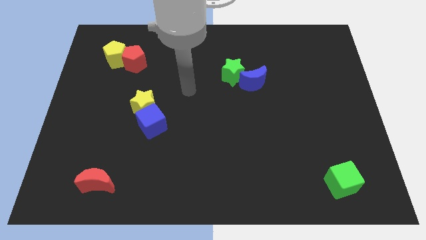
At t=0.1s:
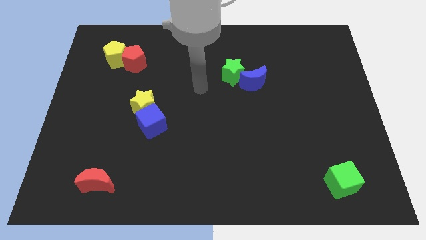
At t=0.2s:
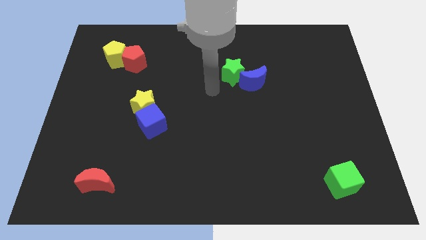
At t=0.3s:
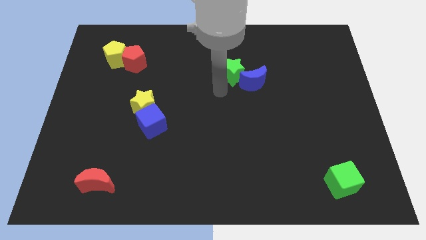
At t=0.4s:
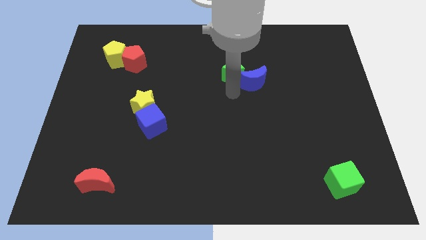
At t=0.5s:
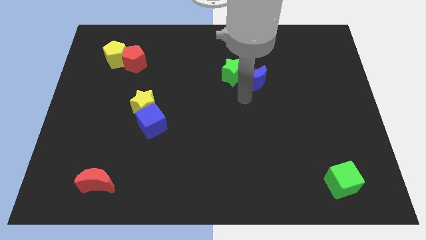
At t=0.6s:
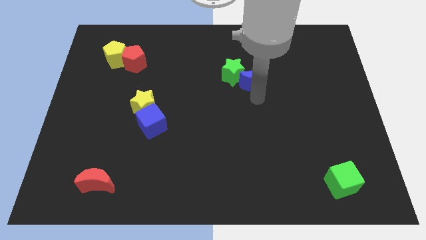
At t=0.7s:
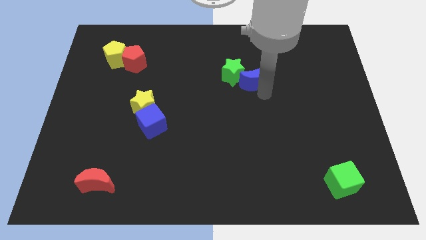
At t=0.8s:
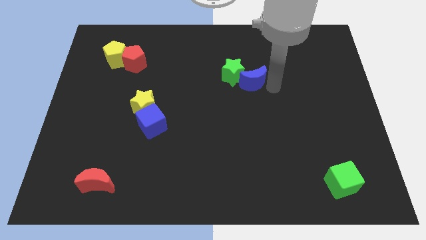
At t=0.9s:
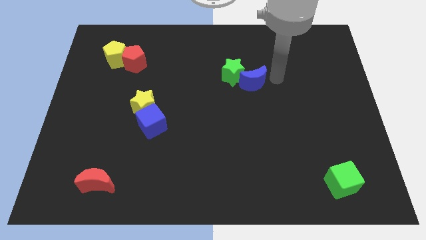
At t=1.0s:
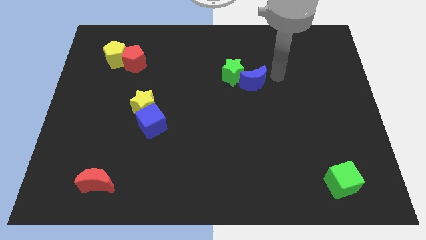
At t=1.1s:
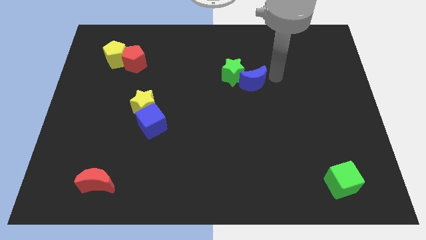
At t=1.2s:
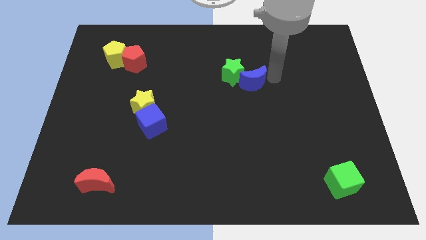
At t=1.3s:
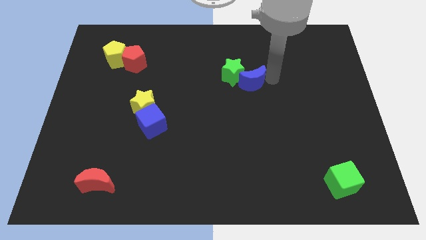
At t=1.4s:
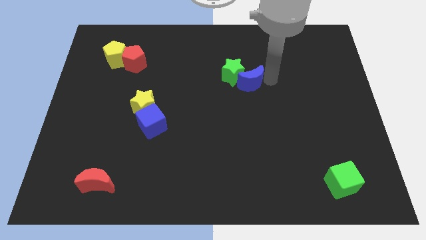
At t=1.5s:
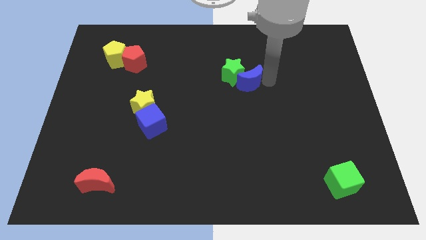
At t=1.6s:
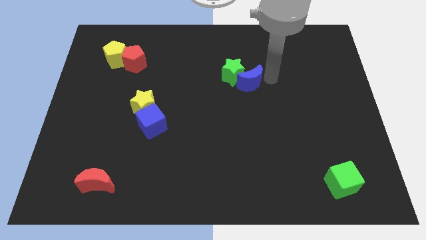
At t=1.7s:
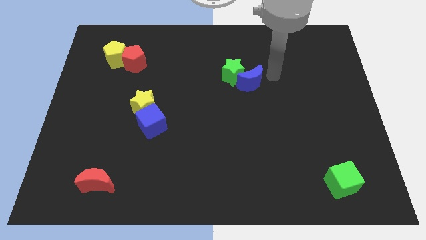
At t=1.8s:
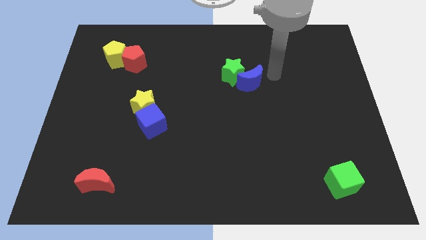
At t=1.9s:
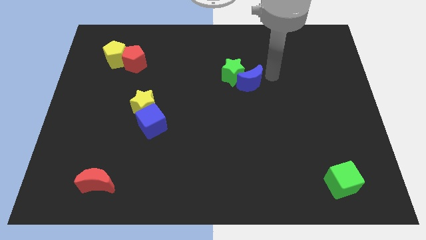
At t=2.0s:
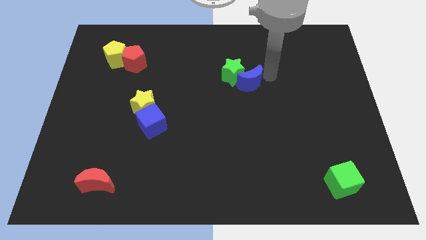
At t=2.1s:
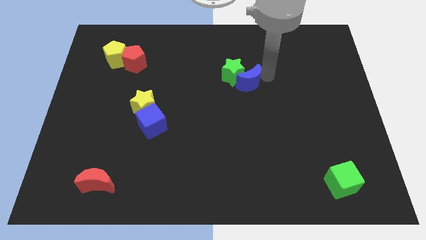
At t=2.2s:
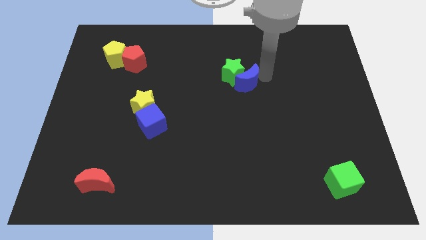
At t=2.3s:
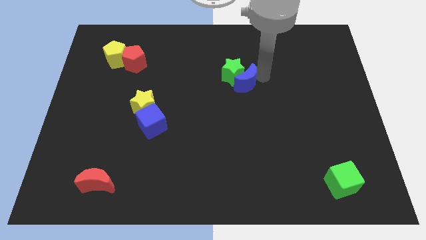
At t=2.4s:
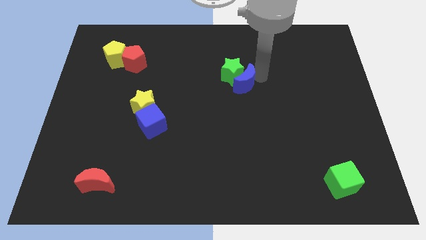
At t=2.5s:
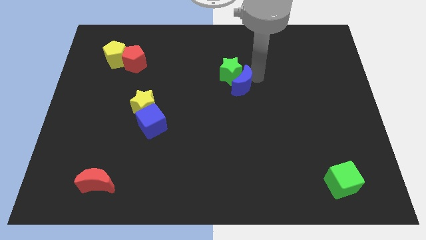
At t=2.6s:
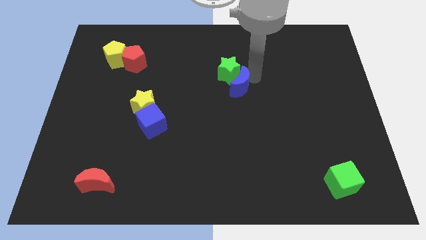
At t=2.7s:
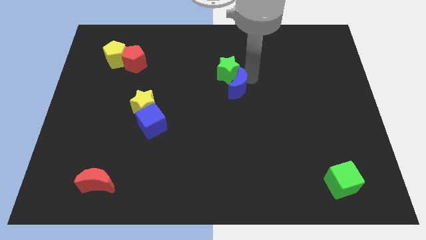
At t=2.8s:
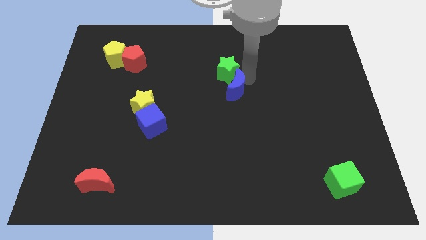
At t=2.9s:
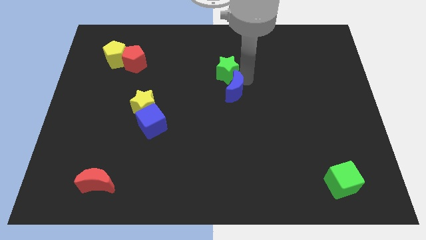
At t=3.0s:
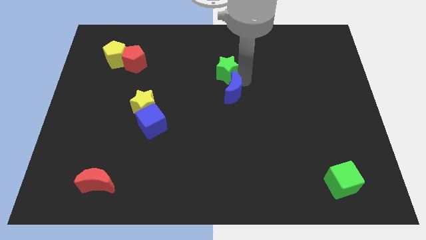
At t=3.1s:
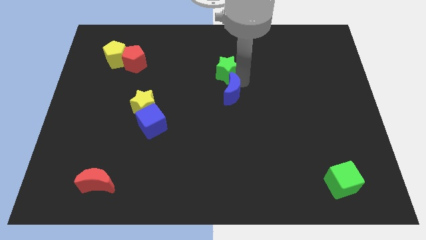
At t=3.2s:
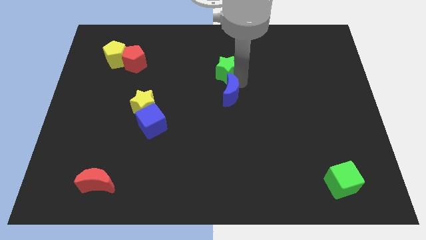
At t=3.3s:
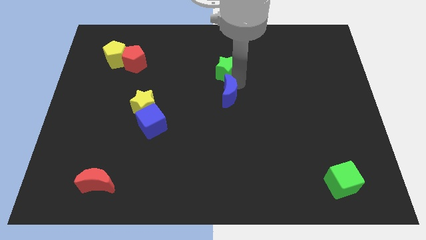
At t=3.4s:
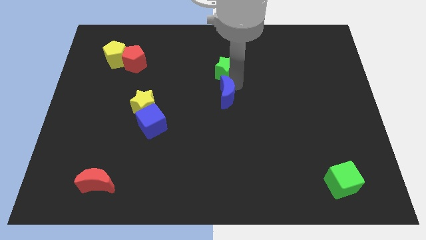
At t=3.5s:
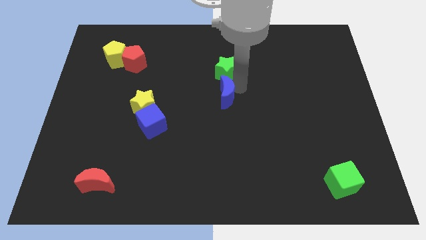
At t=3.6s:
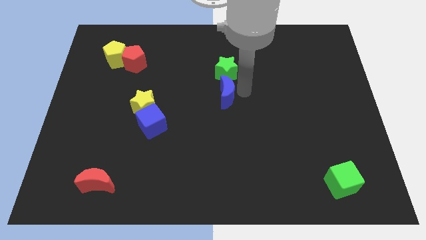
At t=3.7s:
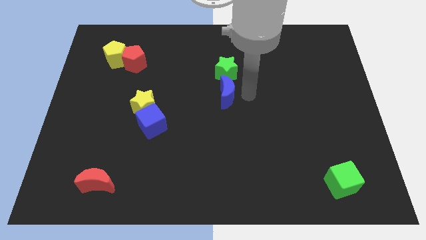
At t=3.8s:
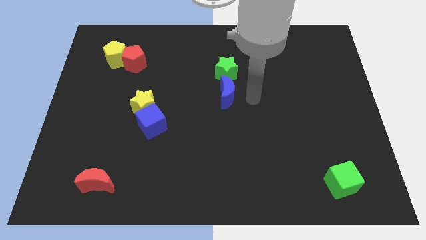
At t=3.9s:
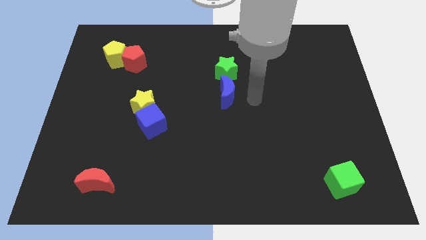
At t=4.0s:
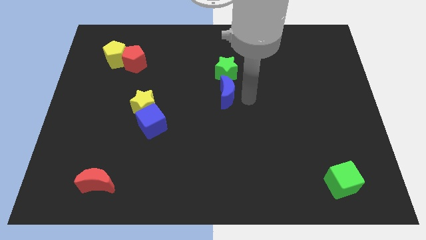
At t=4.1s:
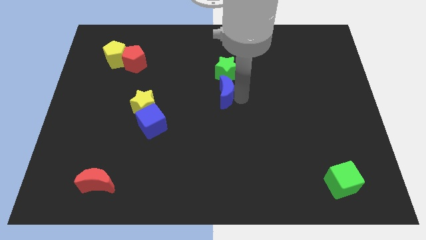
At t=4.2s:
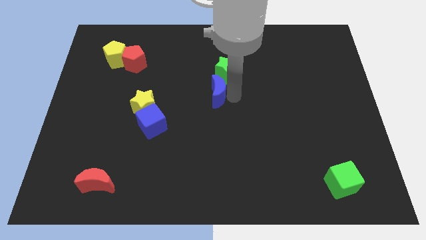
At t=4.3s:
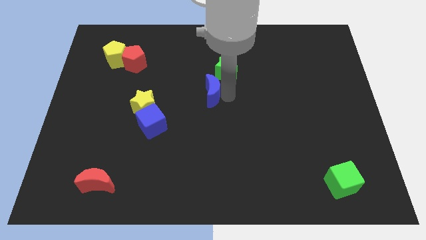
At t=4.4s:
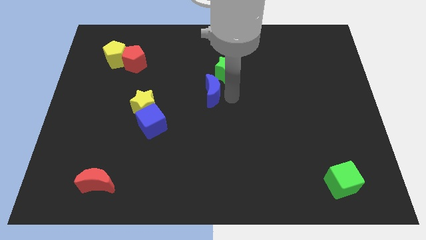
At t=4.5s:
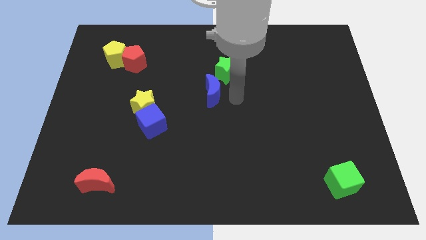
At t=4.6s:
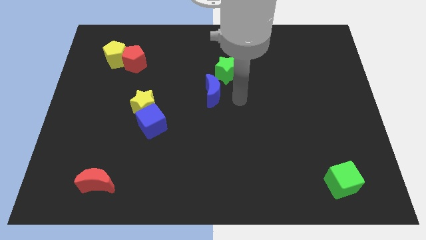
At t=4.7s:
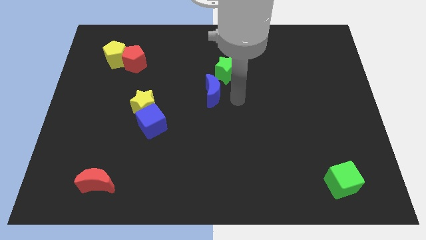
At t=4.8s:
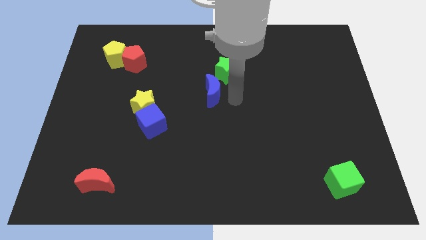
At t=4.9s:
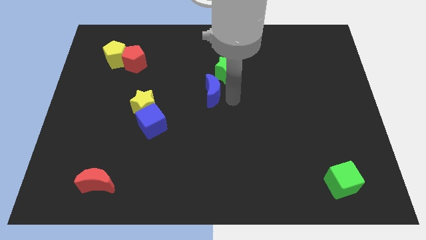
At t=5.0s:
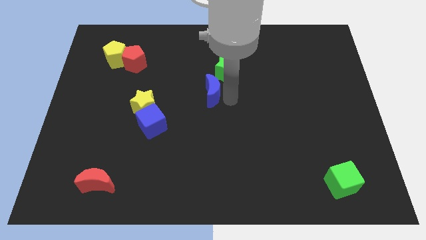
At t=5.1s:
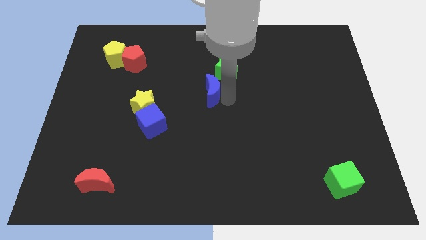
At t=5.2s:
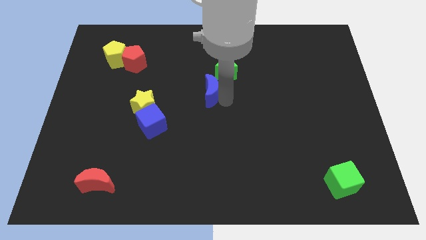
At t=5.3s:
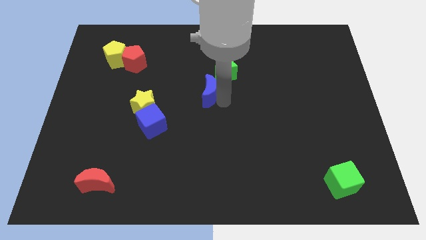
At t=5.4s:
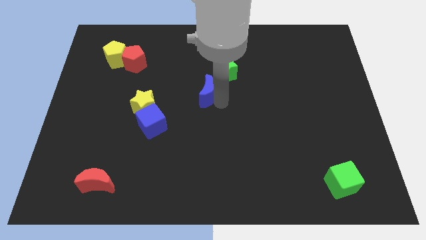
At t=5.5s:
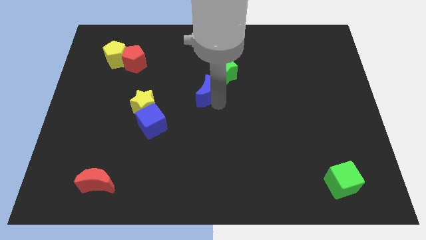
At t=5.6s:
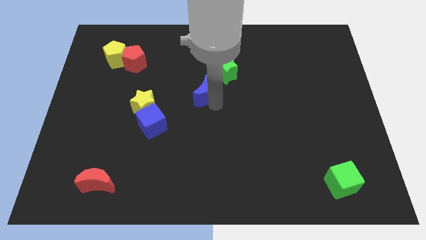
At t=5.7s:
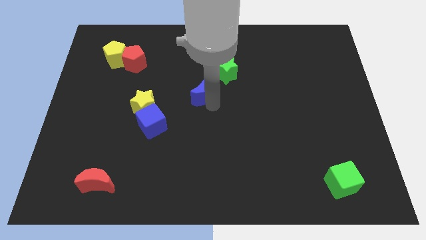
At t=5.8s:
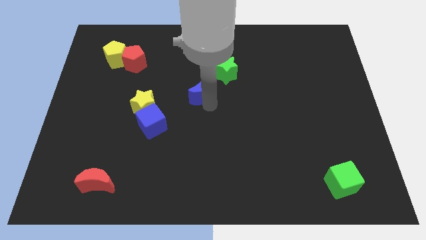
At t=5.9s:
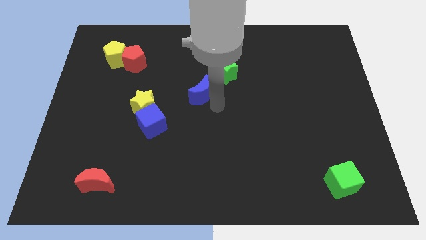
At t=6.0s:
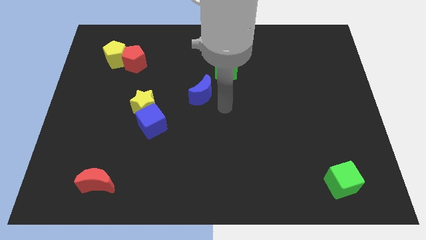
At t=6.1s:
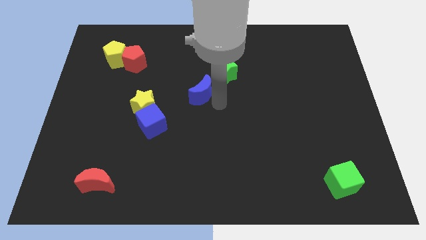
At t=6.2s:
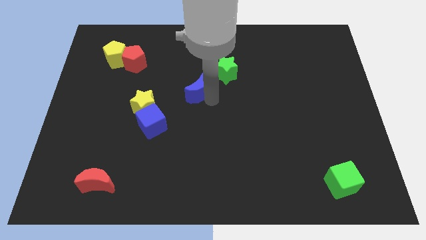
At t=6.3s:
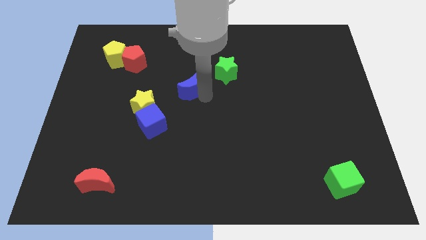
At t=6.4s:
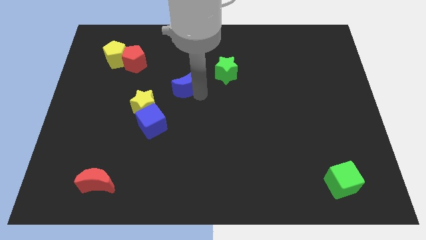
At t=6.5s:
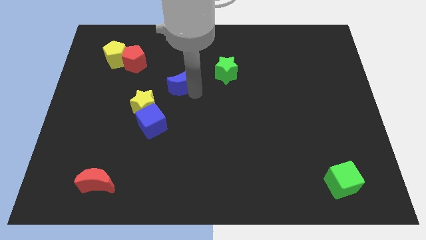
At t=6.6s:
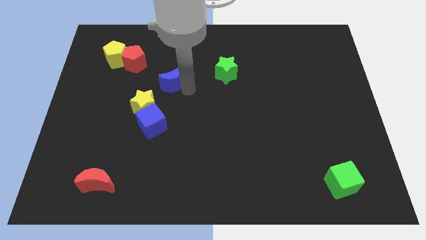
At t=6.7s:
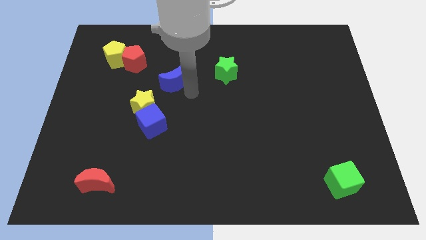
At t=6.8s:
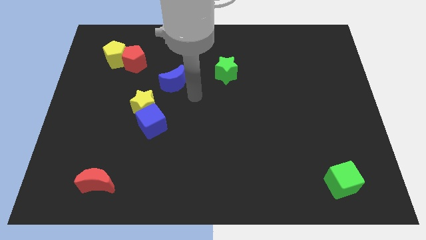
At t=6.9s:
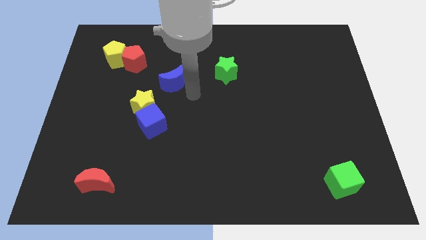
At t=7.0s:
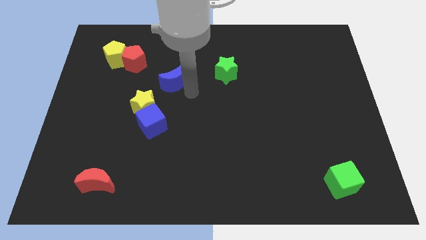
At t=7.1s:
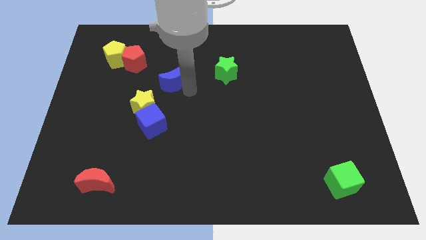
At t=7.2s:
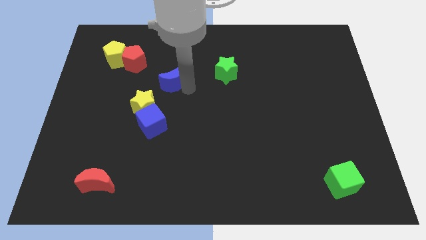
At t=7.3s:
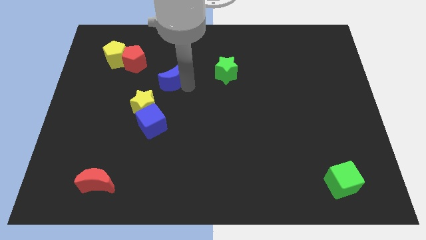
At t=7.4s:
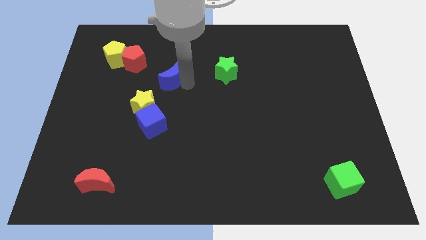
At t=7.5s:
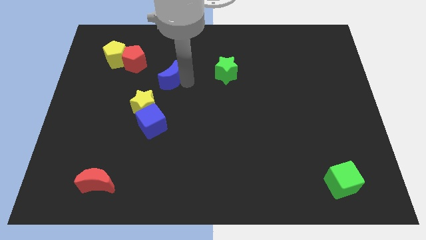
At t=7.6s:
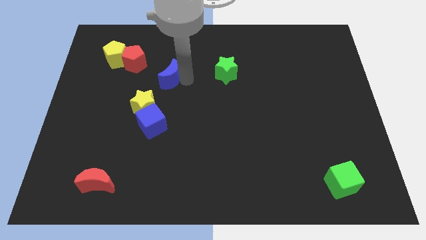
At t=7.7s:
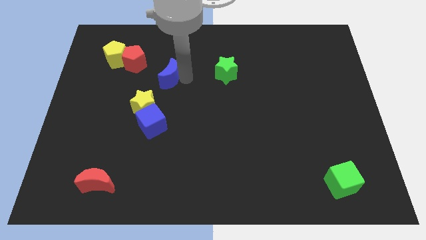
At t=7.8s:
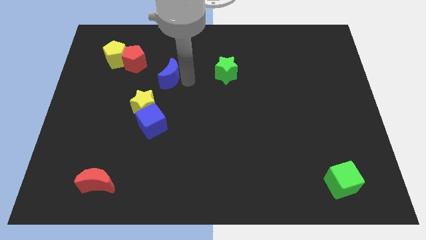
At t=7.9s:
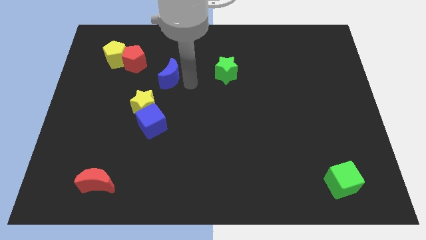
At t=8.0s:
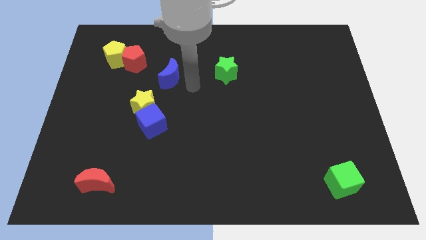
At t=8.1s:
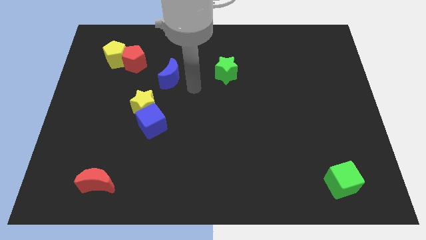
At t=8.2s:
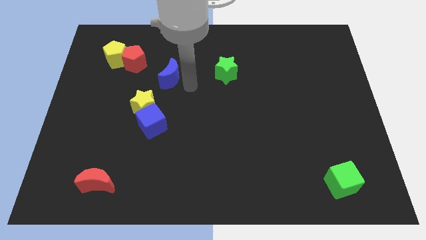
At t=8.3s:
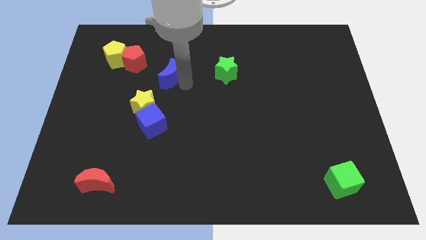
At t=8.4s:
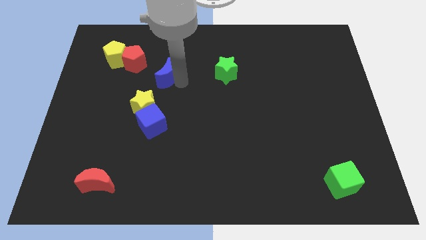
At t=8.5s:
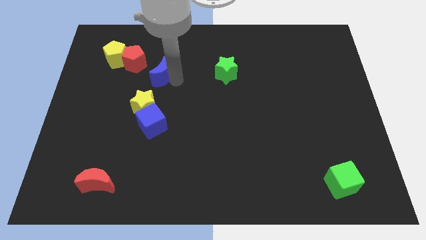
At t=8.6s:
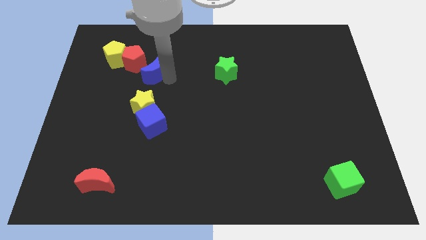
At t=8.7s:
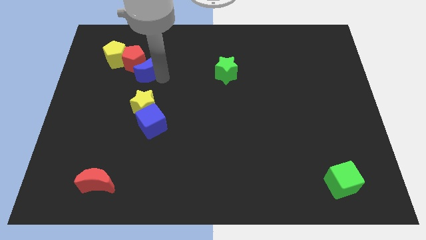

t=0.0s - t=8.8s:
put the blue moon next to the red pentagon
